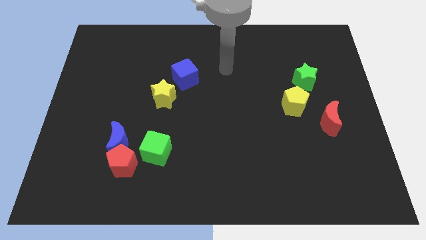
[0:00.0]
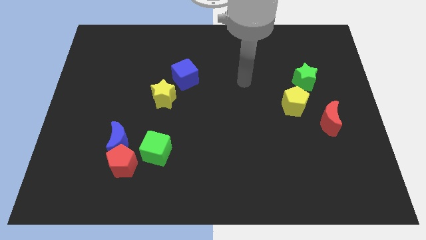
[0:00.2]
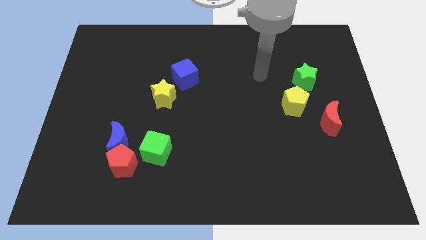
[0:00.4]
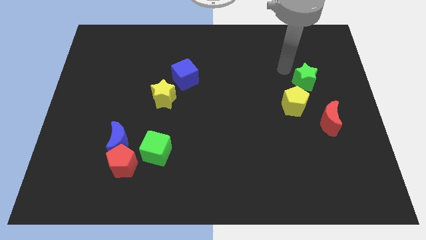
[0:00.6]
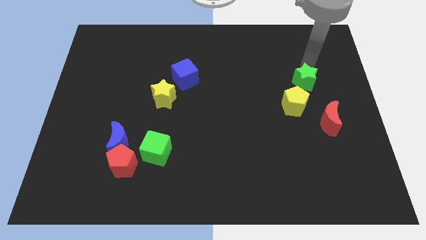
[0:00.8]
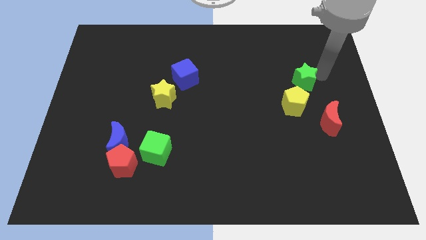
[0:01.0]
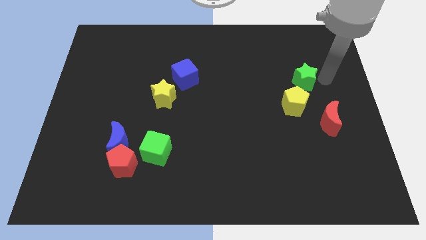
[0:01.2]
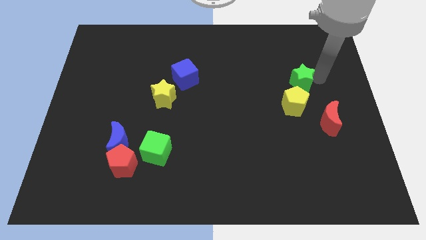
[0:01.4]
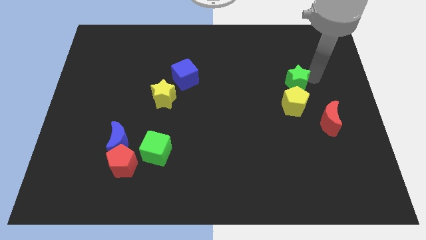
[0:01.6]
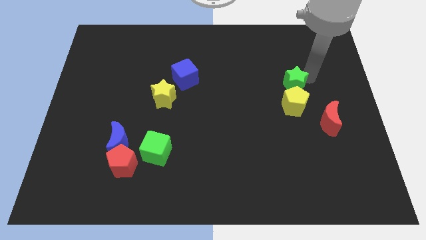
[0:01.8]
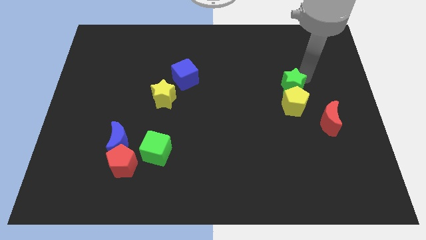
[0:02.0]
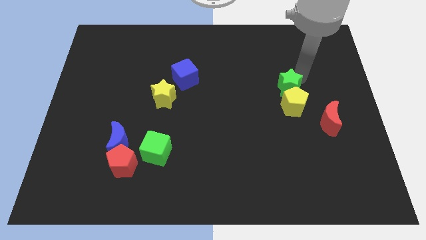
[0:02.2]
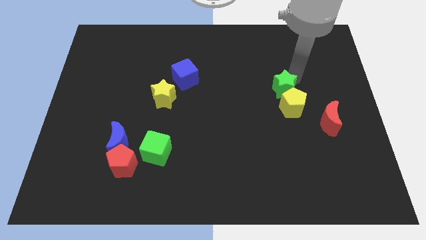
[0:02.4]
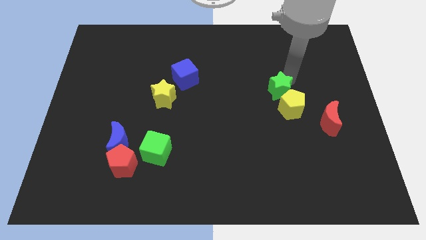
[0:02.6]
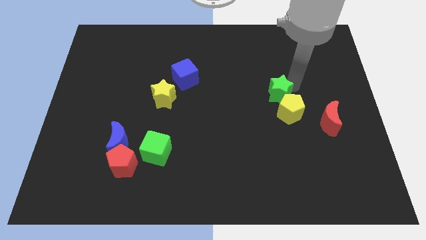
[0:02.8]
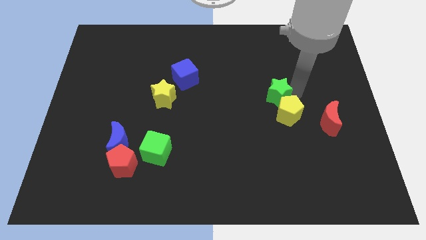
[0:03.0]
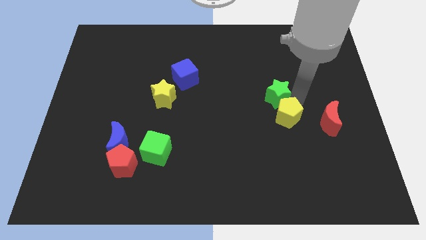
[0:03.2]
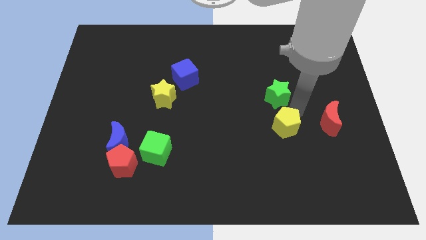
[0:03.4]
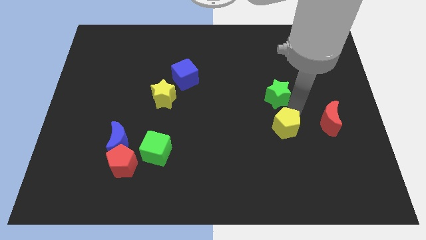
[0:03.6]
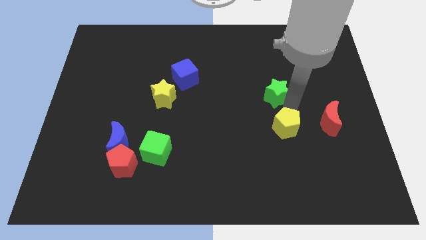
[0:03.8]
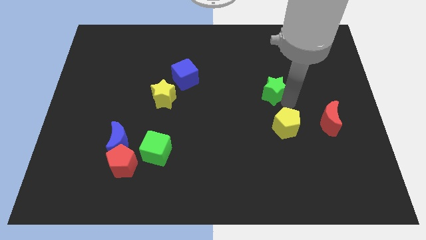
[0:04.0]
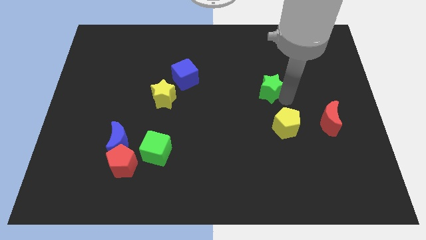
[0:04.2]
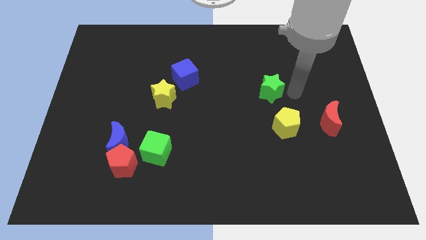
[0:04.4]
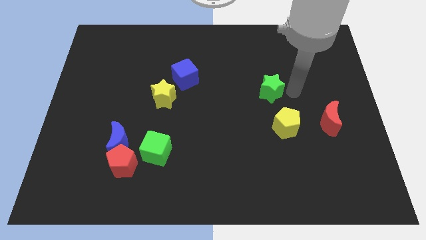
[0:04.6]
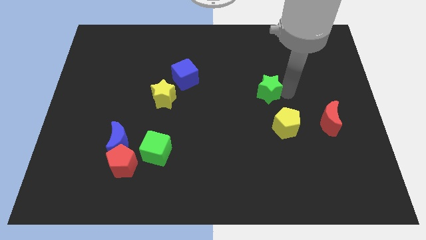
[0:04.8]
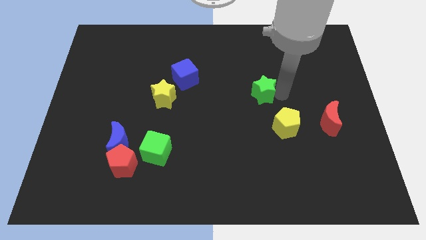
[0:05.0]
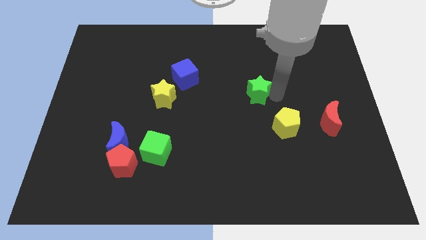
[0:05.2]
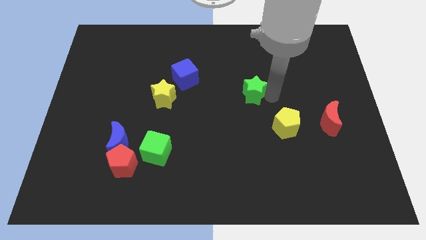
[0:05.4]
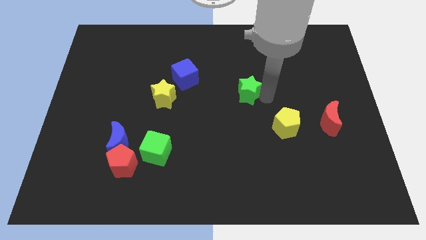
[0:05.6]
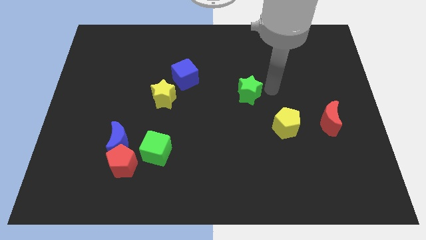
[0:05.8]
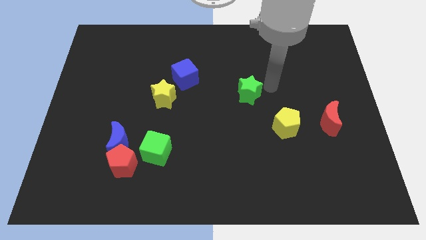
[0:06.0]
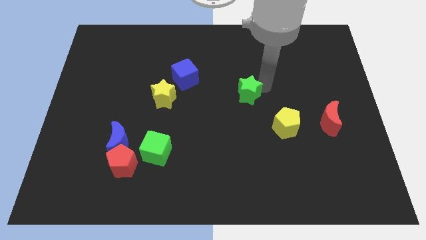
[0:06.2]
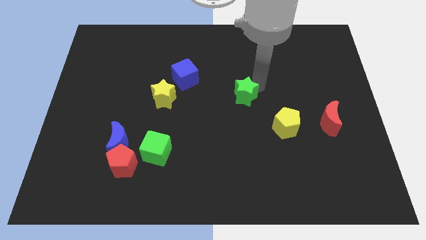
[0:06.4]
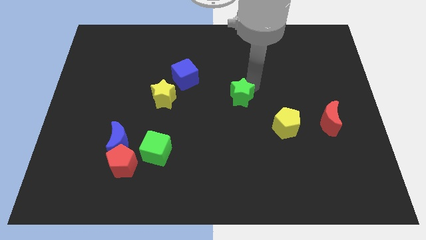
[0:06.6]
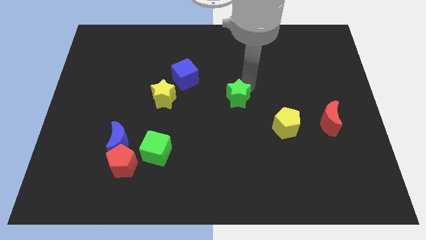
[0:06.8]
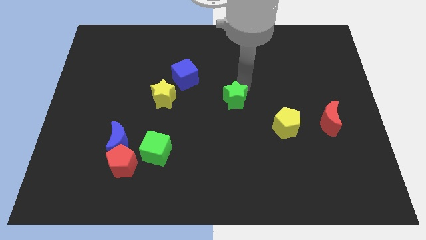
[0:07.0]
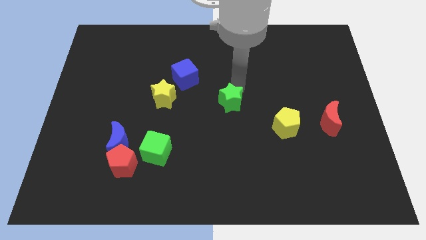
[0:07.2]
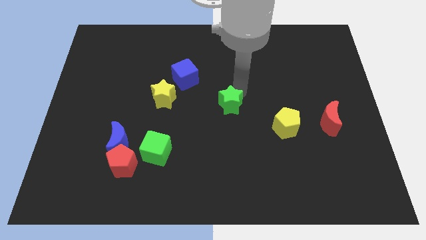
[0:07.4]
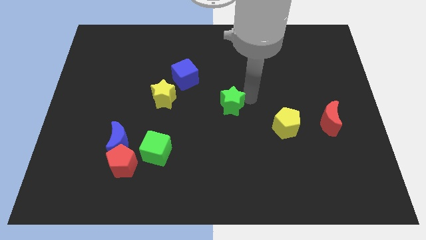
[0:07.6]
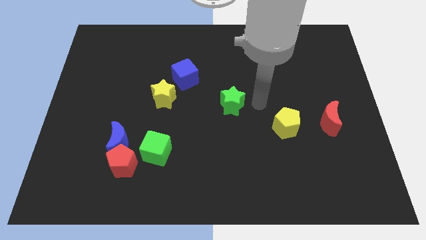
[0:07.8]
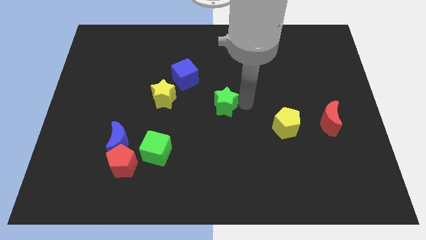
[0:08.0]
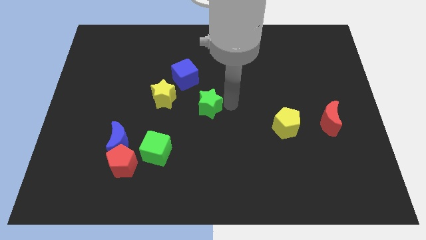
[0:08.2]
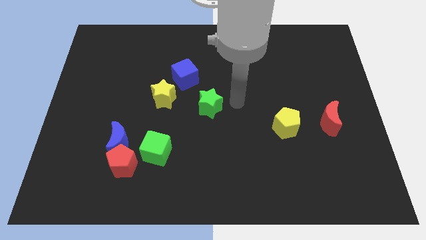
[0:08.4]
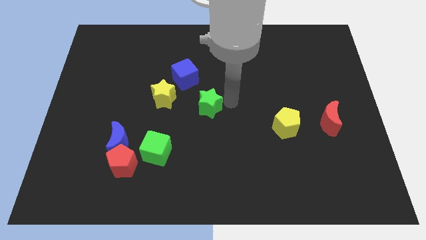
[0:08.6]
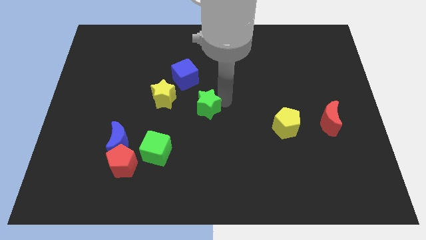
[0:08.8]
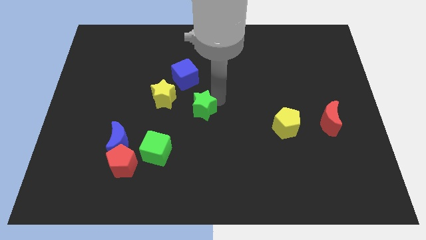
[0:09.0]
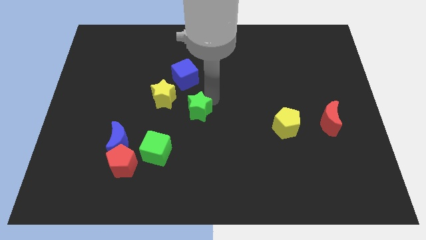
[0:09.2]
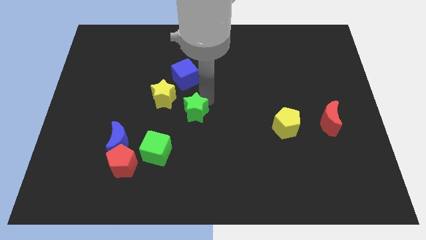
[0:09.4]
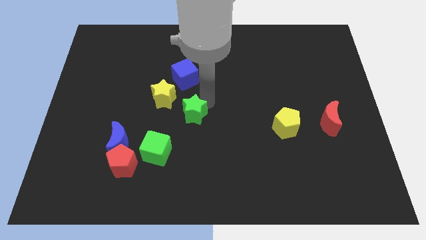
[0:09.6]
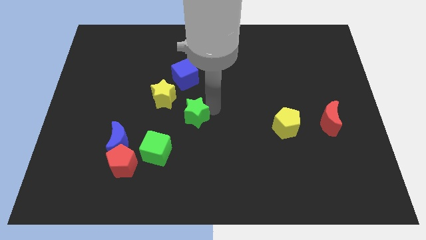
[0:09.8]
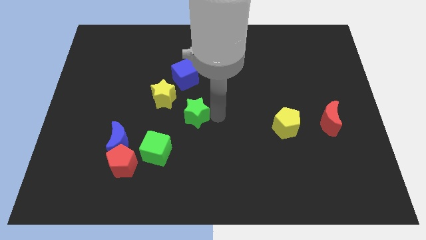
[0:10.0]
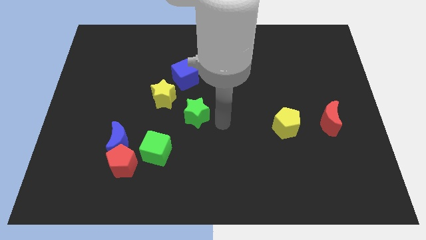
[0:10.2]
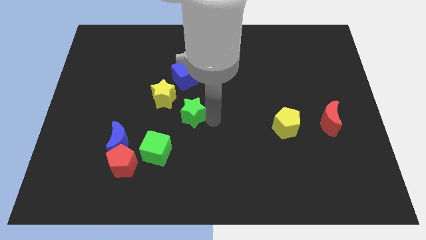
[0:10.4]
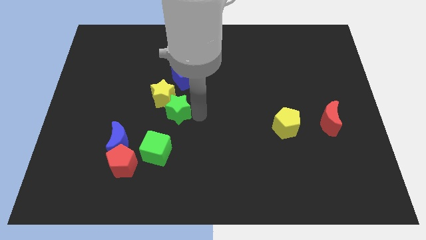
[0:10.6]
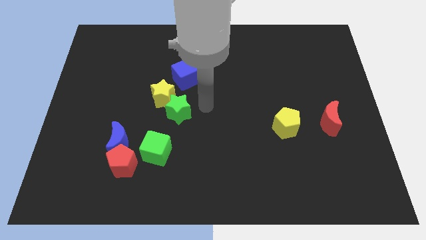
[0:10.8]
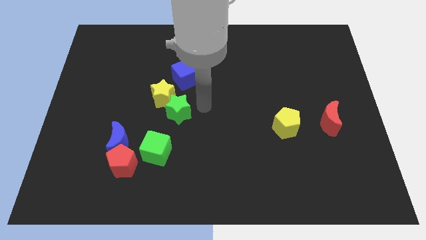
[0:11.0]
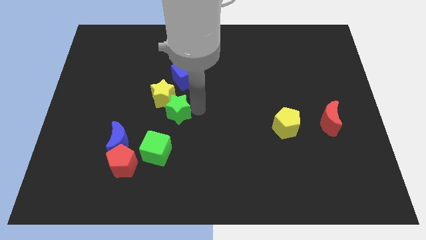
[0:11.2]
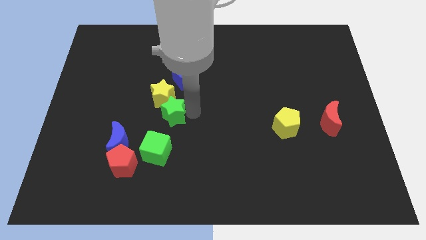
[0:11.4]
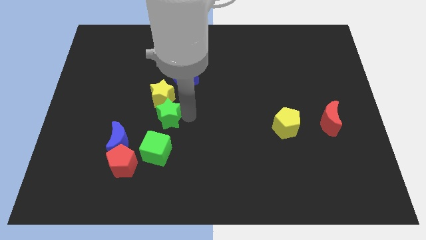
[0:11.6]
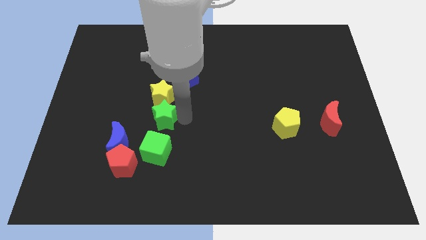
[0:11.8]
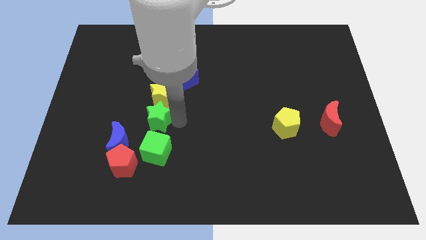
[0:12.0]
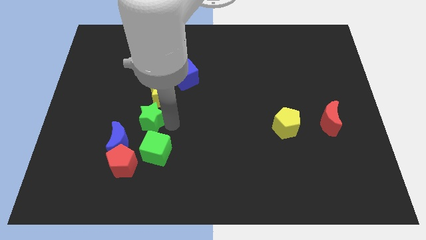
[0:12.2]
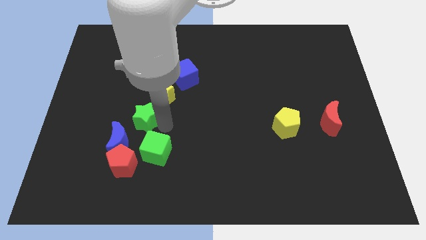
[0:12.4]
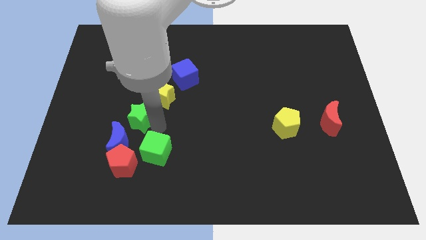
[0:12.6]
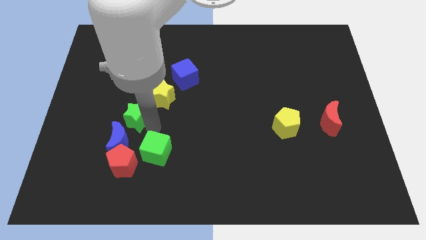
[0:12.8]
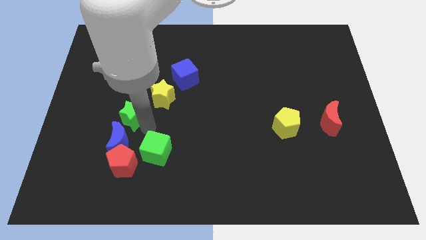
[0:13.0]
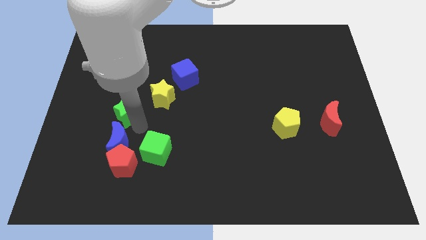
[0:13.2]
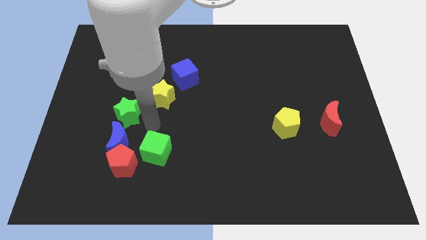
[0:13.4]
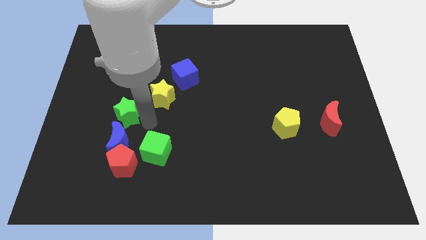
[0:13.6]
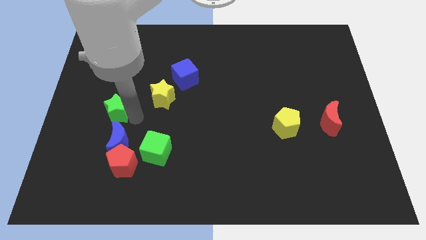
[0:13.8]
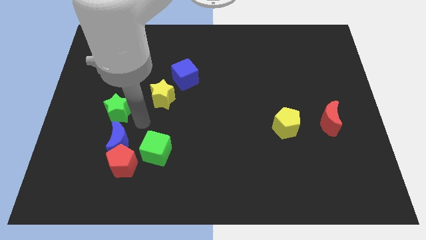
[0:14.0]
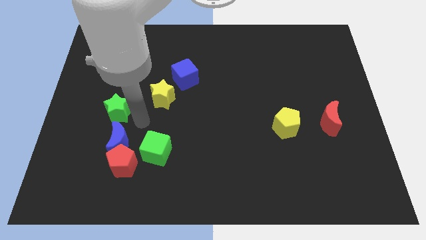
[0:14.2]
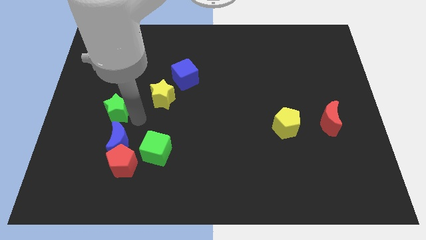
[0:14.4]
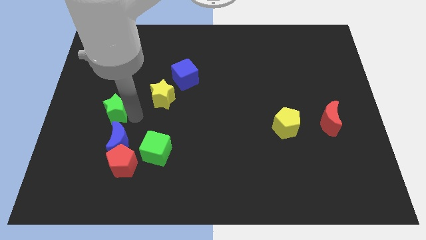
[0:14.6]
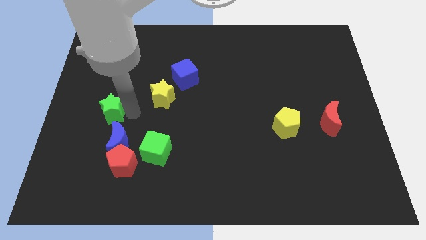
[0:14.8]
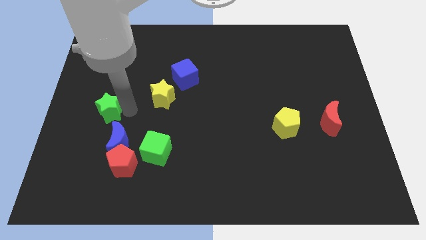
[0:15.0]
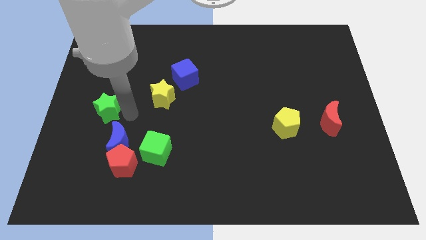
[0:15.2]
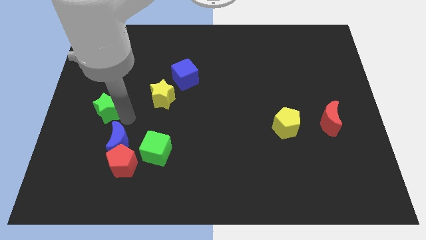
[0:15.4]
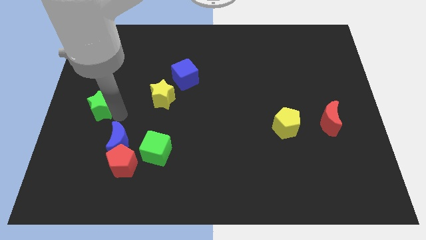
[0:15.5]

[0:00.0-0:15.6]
slide the green star to the center left
